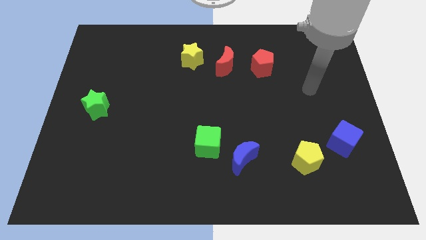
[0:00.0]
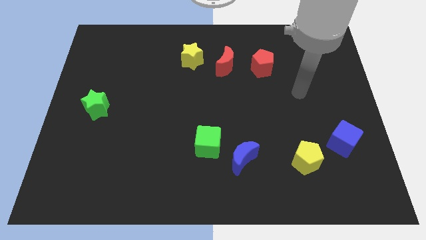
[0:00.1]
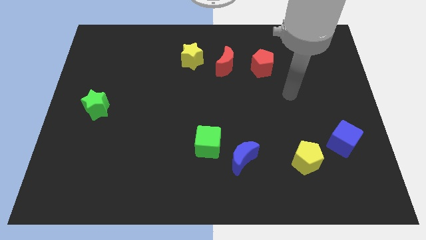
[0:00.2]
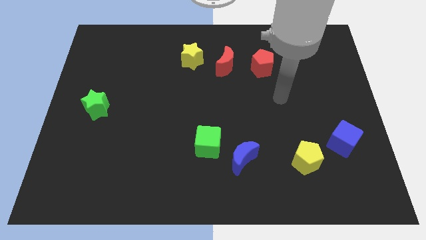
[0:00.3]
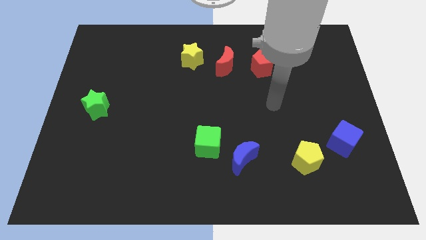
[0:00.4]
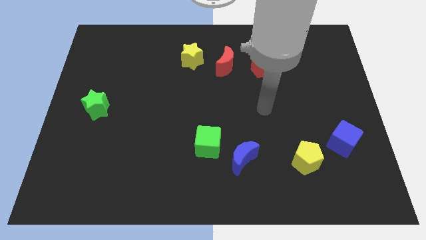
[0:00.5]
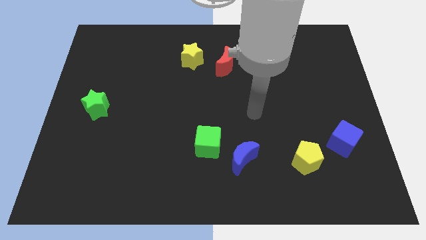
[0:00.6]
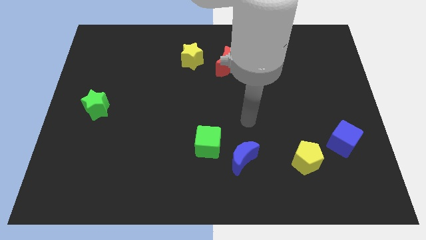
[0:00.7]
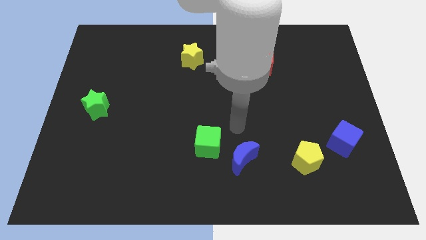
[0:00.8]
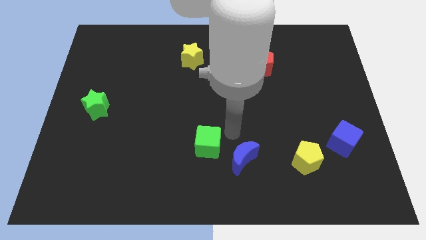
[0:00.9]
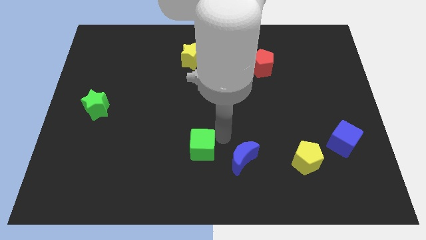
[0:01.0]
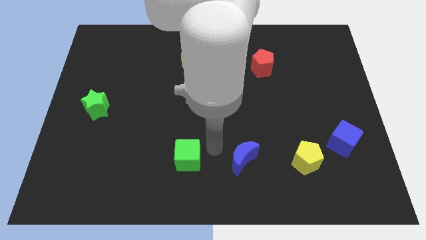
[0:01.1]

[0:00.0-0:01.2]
pull the blue moon apart from the green cube

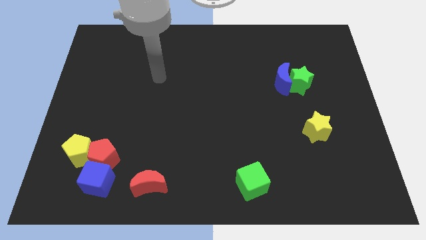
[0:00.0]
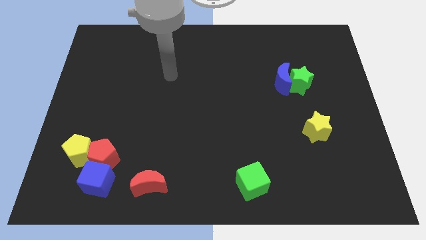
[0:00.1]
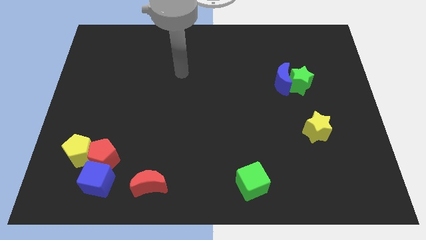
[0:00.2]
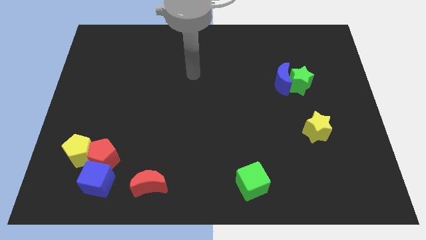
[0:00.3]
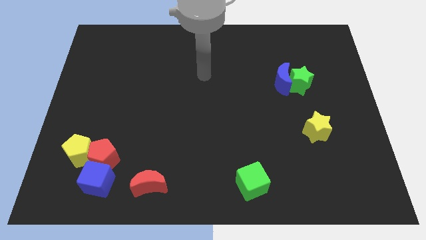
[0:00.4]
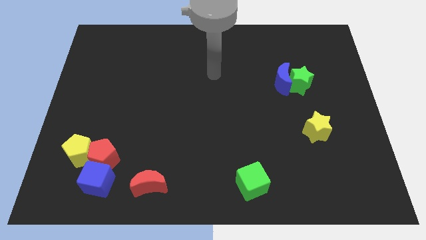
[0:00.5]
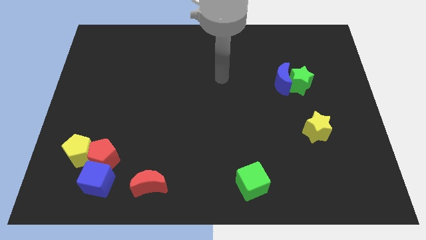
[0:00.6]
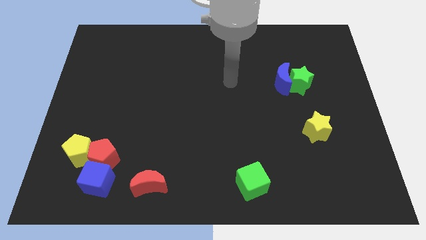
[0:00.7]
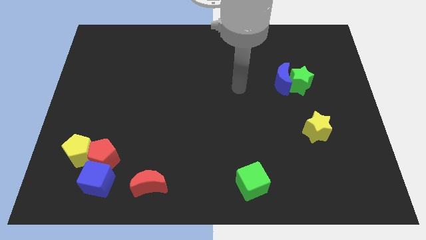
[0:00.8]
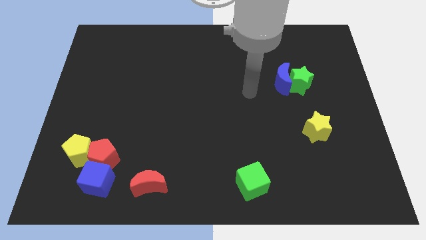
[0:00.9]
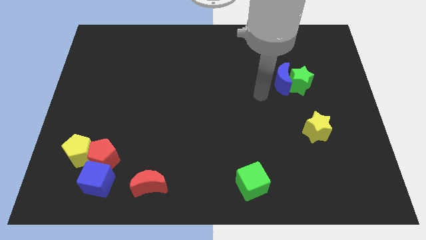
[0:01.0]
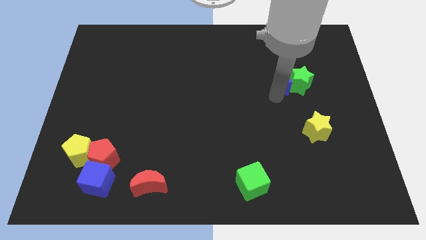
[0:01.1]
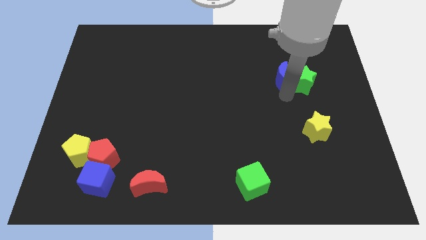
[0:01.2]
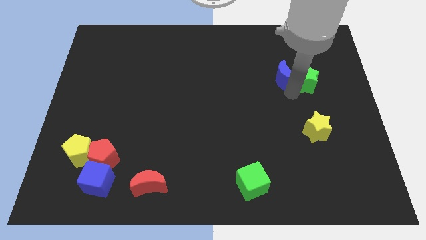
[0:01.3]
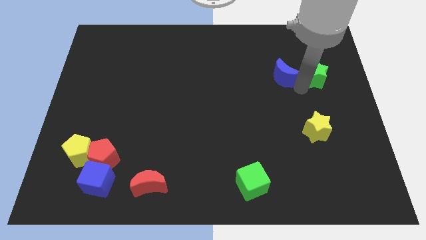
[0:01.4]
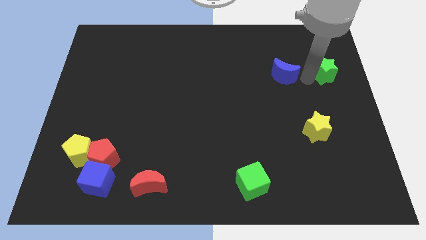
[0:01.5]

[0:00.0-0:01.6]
move the blue moon away from the green star

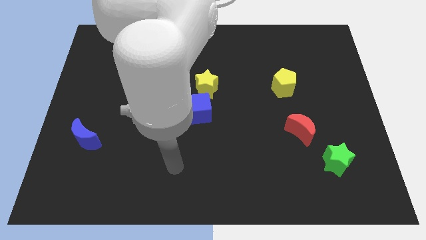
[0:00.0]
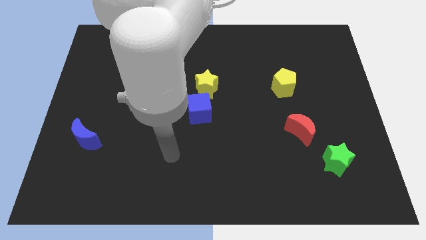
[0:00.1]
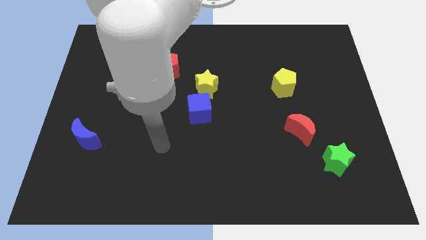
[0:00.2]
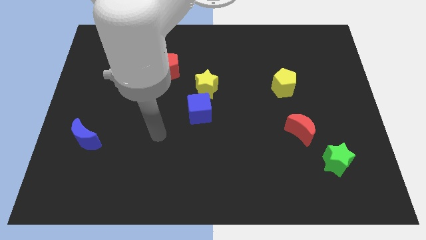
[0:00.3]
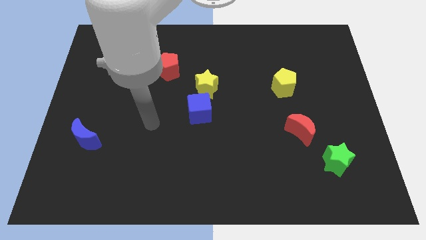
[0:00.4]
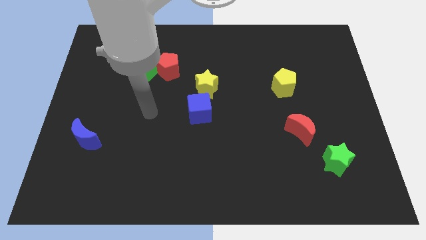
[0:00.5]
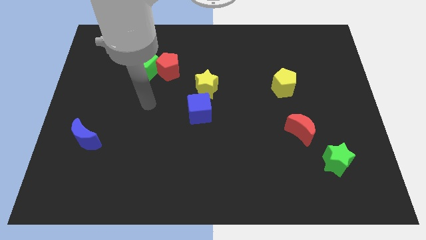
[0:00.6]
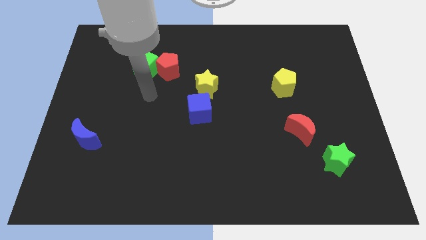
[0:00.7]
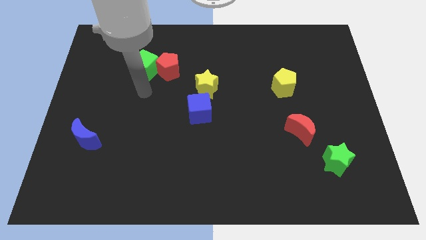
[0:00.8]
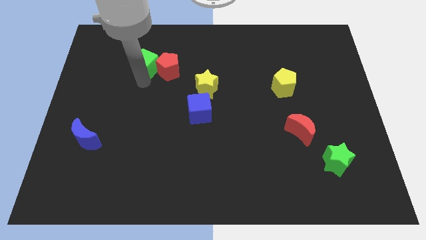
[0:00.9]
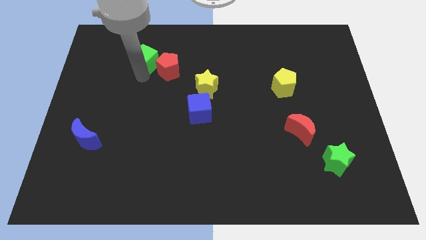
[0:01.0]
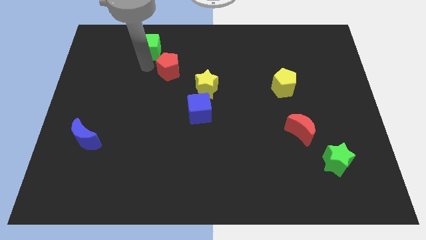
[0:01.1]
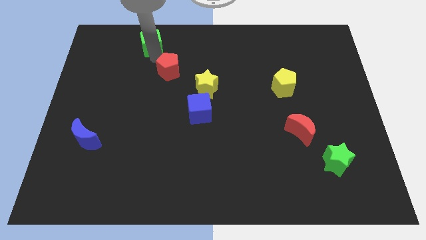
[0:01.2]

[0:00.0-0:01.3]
pull the red pentagon apart from the green cube

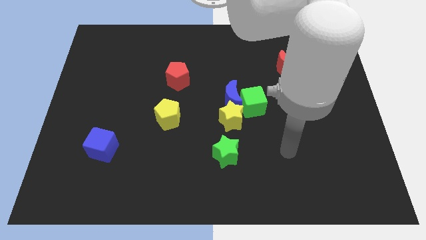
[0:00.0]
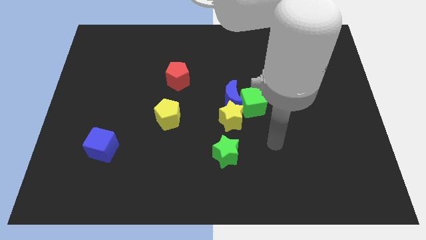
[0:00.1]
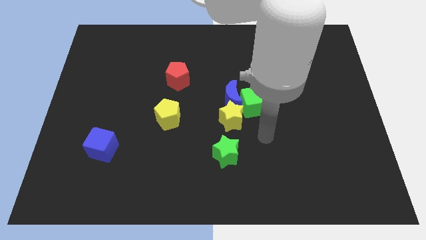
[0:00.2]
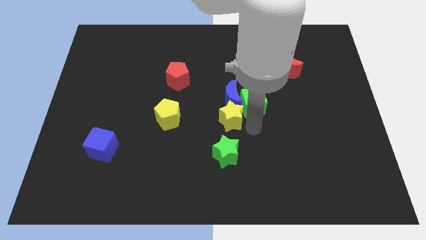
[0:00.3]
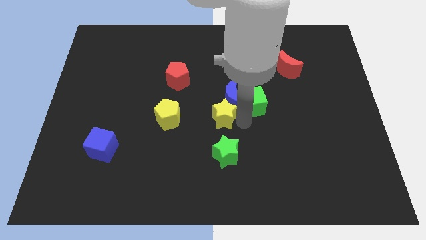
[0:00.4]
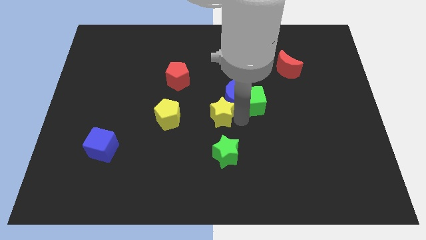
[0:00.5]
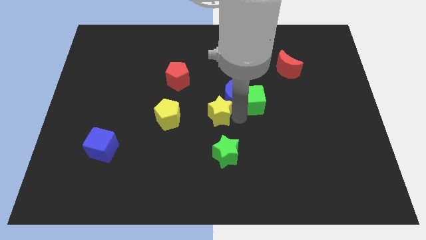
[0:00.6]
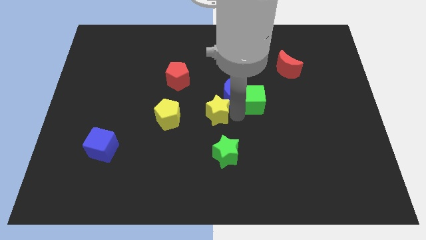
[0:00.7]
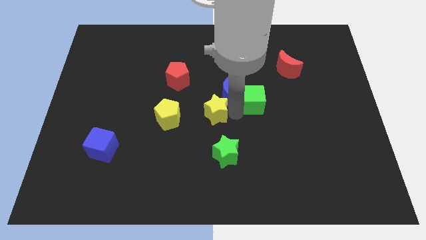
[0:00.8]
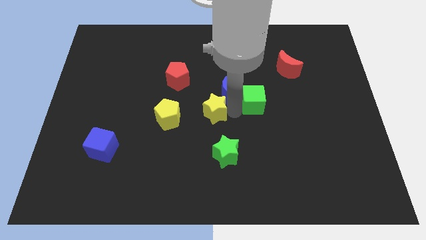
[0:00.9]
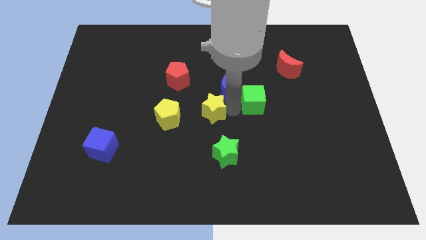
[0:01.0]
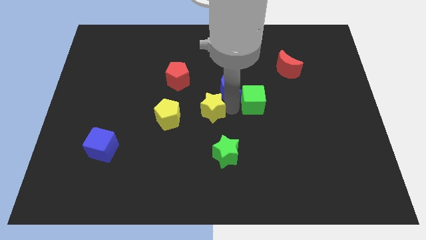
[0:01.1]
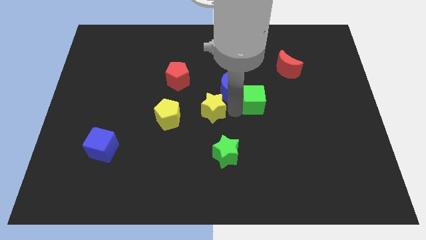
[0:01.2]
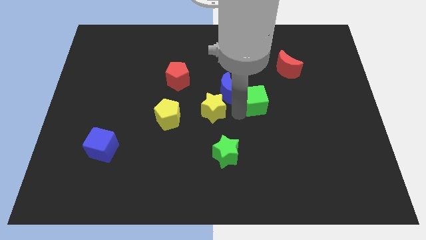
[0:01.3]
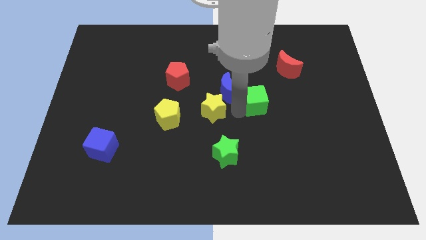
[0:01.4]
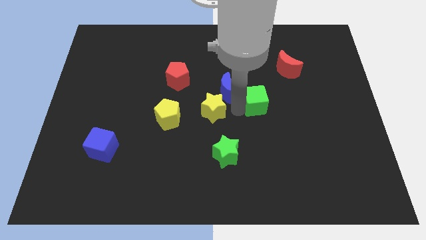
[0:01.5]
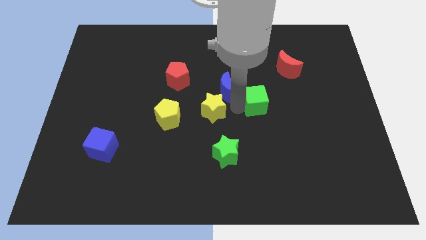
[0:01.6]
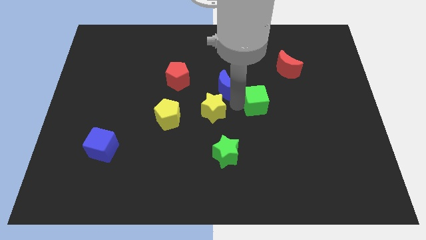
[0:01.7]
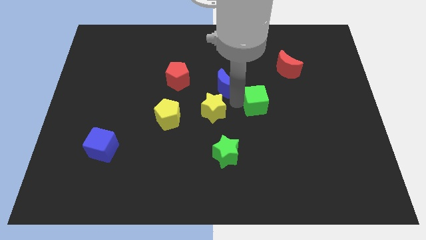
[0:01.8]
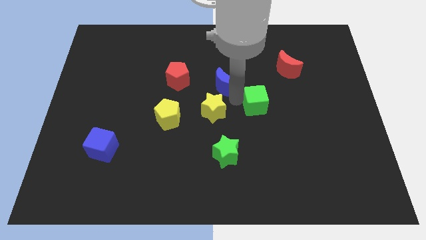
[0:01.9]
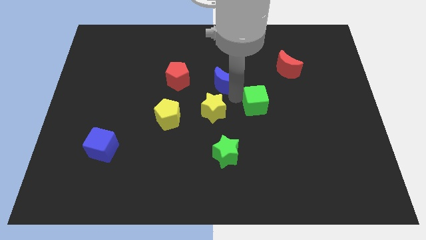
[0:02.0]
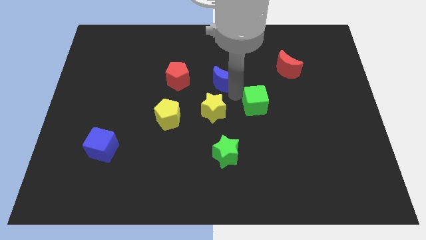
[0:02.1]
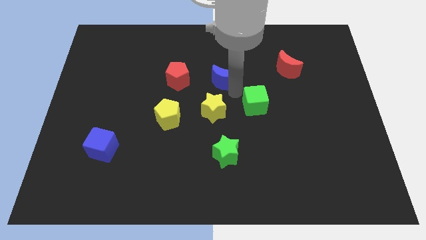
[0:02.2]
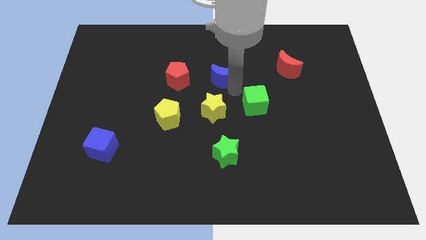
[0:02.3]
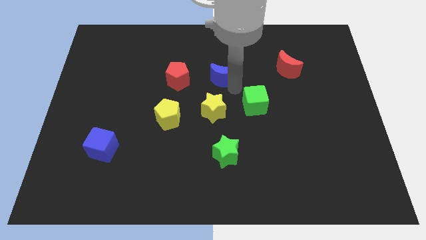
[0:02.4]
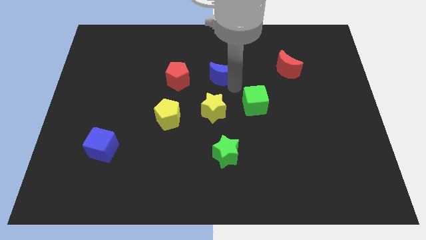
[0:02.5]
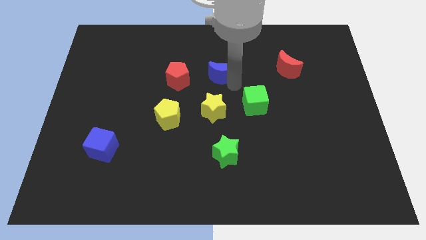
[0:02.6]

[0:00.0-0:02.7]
pull the blue moon apart from the green cube and yellow star

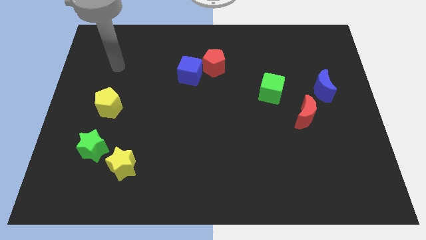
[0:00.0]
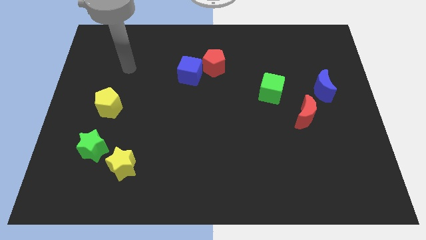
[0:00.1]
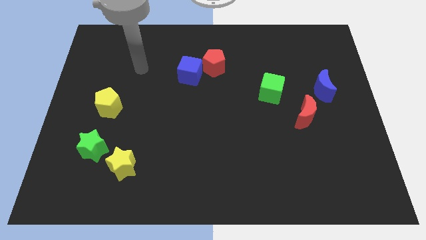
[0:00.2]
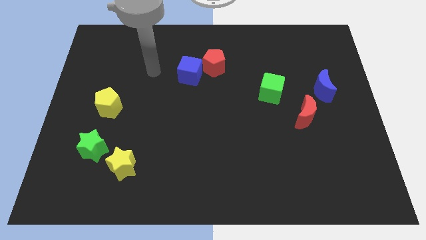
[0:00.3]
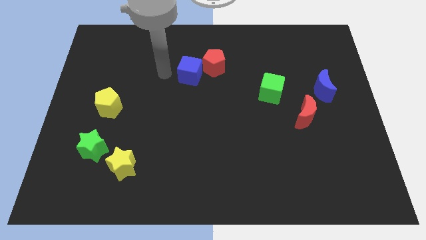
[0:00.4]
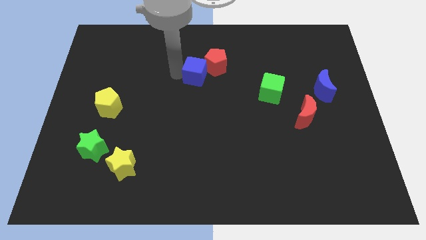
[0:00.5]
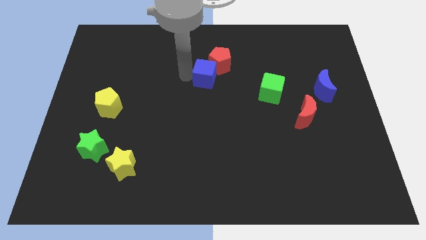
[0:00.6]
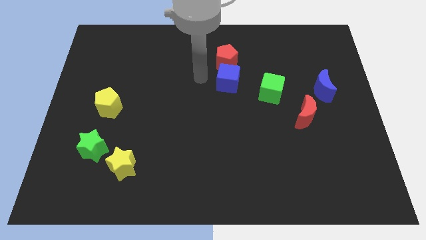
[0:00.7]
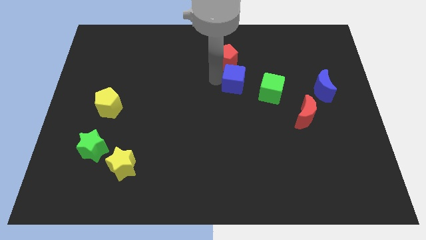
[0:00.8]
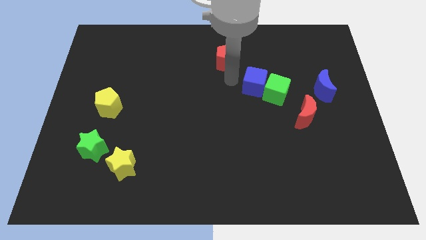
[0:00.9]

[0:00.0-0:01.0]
pull the red pentagon apart from the blue cube

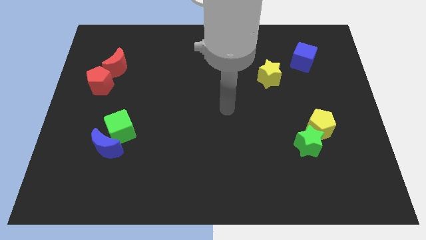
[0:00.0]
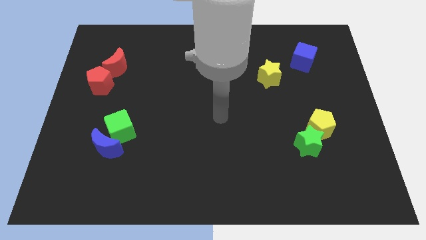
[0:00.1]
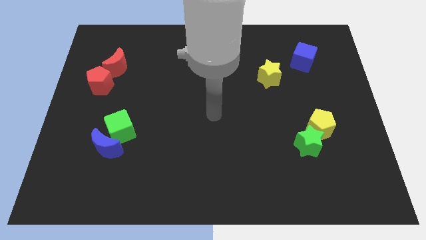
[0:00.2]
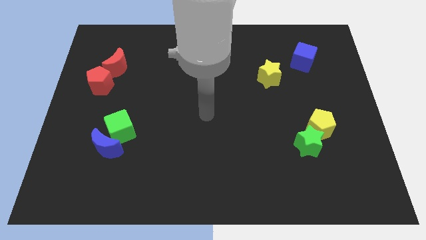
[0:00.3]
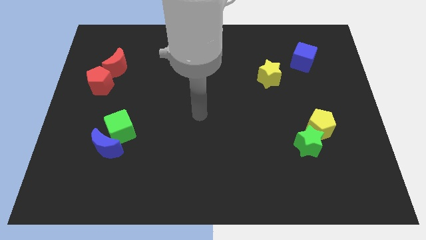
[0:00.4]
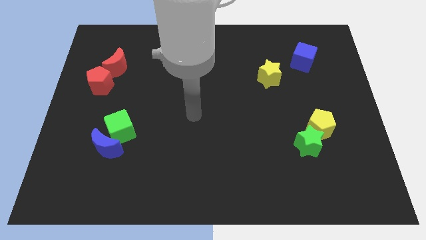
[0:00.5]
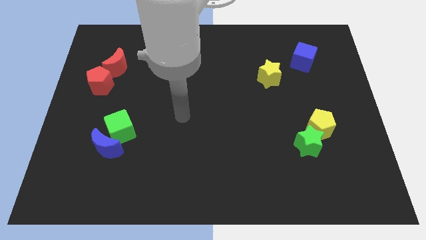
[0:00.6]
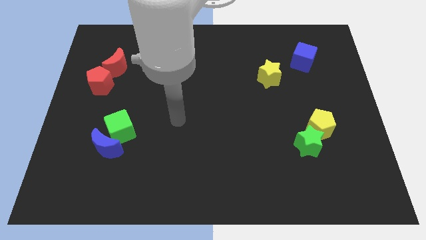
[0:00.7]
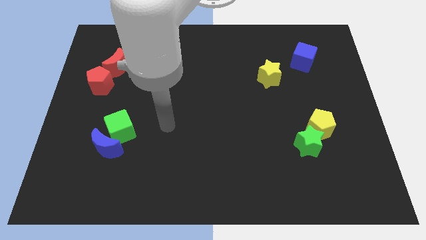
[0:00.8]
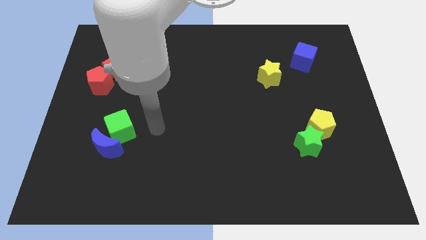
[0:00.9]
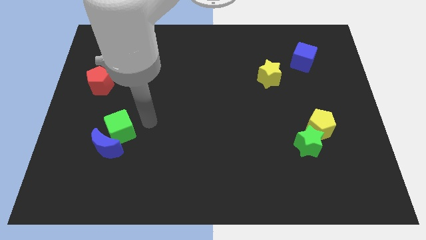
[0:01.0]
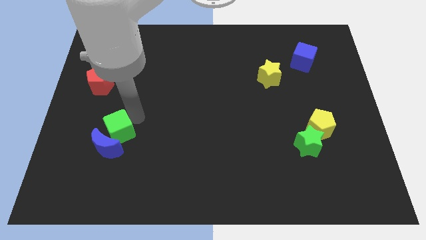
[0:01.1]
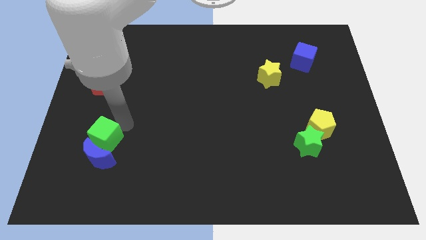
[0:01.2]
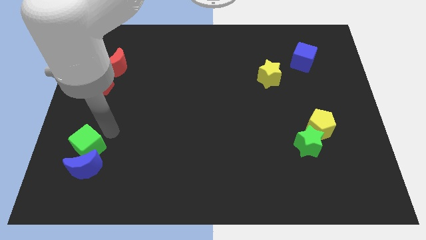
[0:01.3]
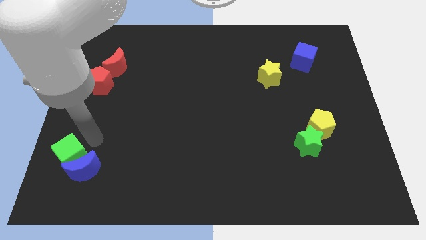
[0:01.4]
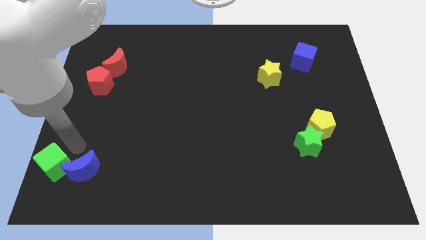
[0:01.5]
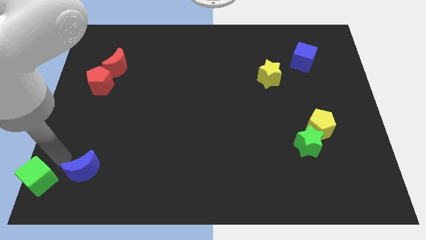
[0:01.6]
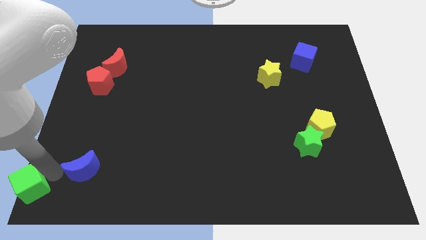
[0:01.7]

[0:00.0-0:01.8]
move the blue moon away from the green cube
